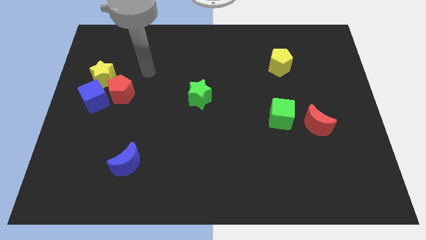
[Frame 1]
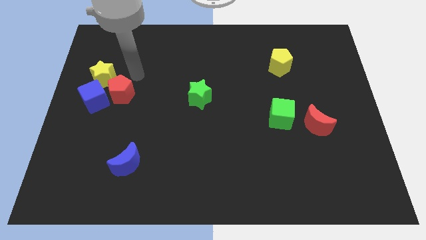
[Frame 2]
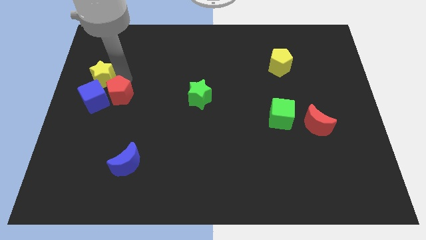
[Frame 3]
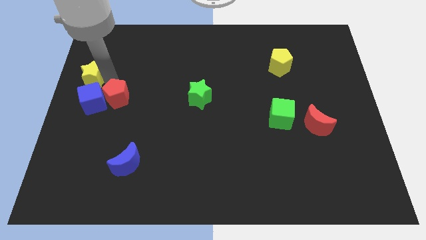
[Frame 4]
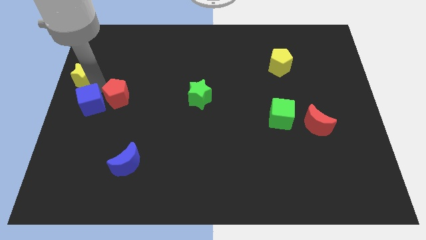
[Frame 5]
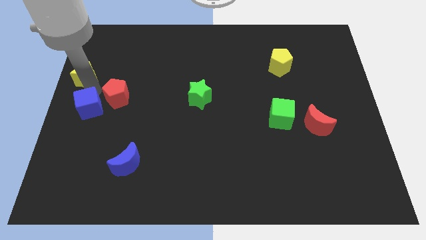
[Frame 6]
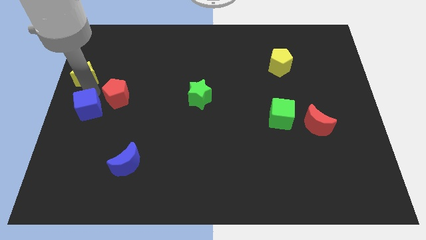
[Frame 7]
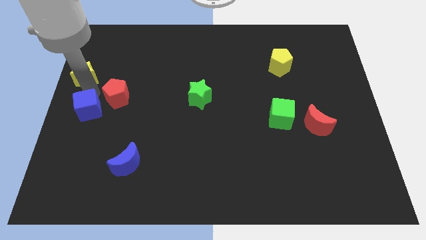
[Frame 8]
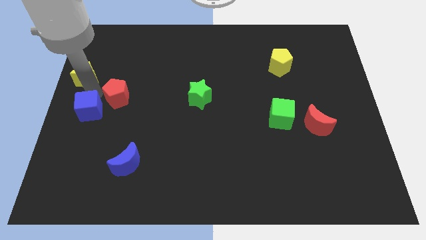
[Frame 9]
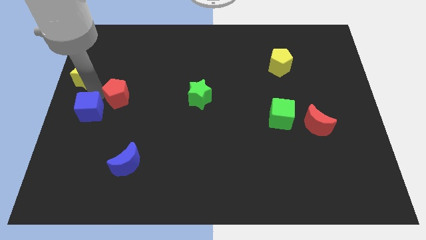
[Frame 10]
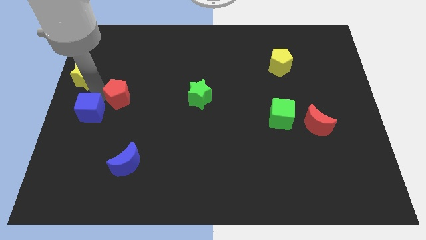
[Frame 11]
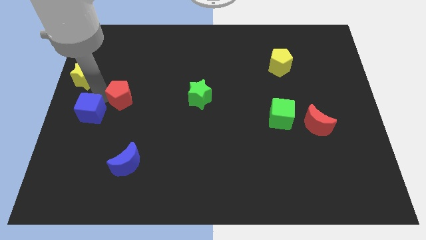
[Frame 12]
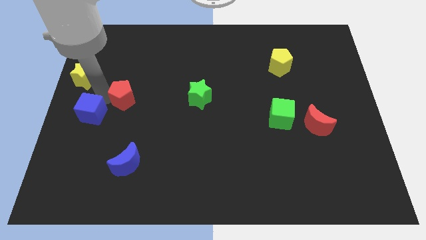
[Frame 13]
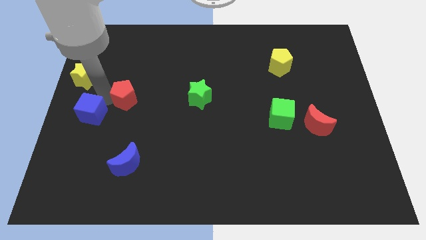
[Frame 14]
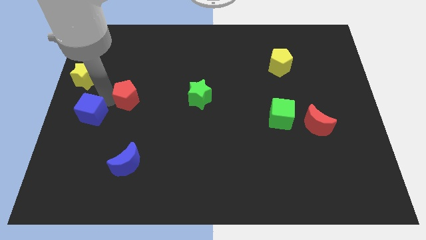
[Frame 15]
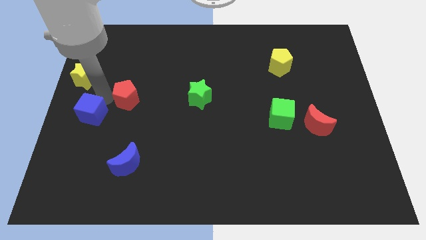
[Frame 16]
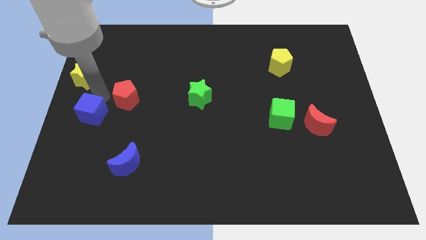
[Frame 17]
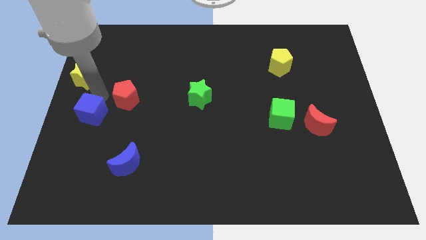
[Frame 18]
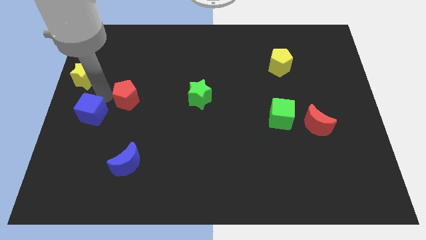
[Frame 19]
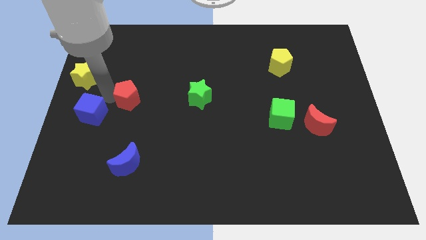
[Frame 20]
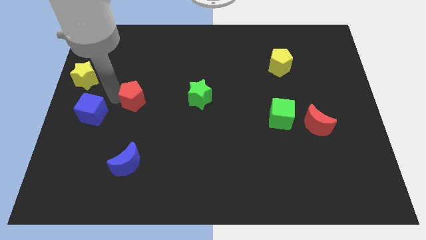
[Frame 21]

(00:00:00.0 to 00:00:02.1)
pull the red pentagon apart from the blue cube and yellow star

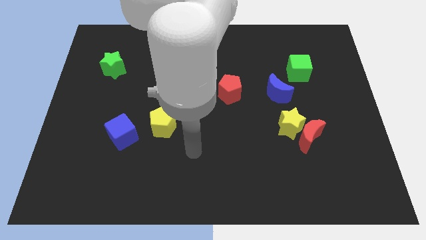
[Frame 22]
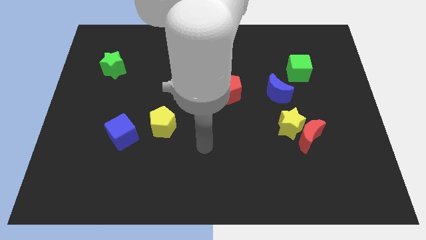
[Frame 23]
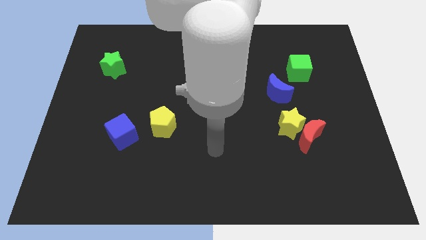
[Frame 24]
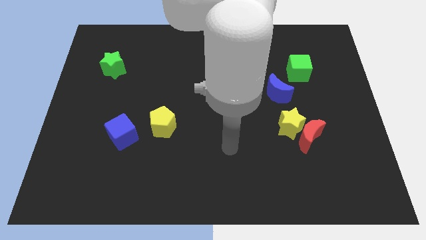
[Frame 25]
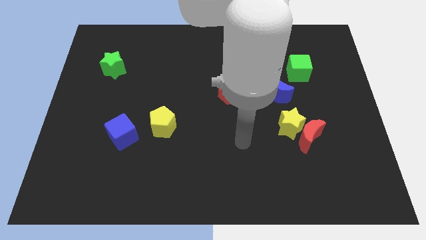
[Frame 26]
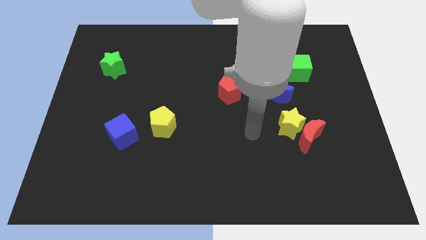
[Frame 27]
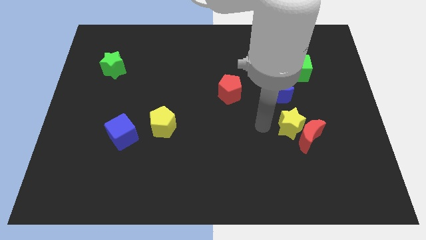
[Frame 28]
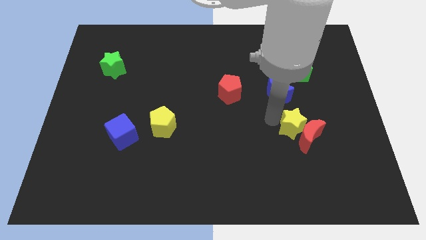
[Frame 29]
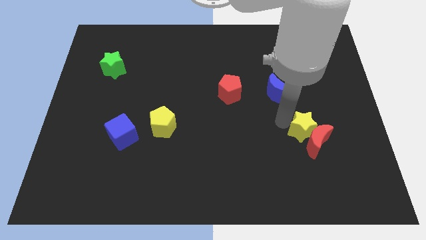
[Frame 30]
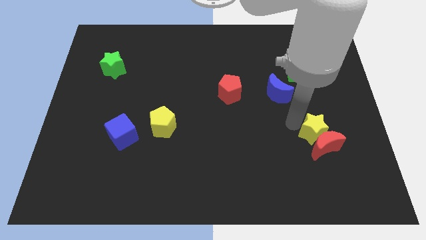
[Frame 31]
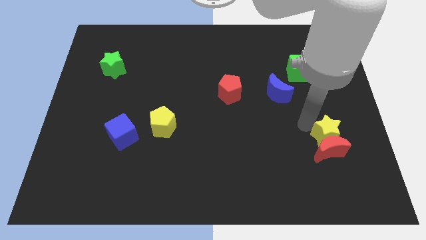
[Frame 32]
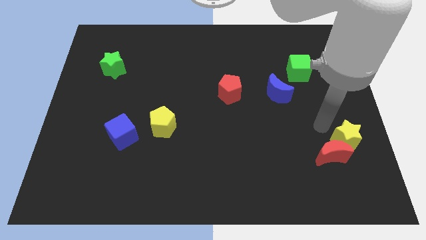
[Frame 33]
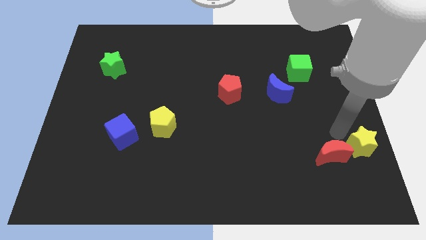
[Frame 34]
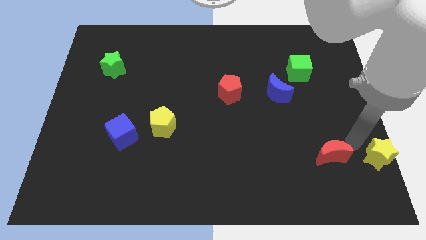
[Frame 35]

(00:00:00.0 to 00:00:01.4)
move the red moon away from the yellow star

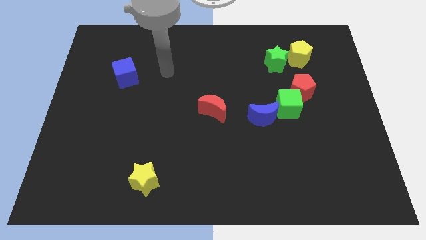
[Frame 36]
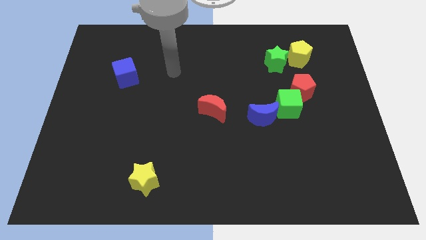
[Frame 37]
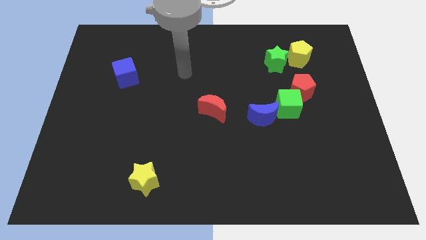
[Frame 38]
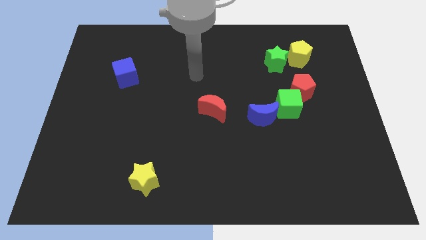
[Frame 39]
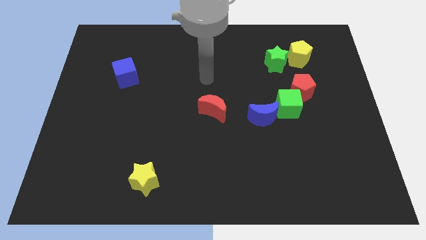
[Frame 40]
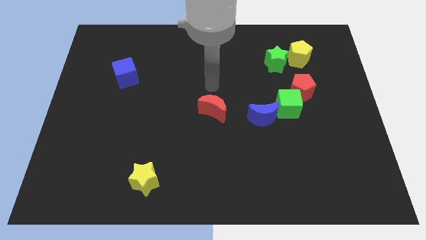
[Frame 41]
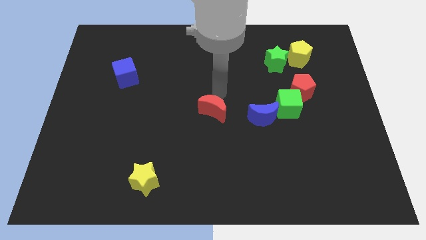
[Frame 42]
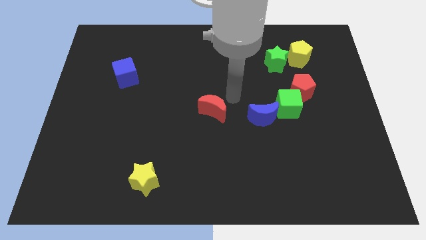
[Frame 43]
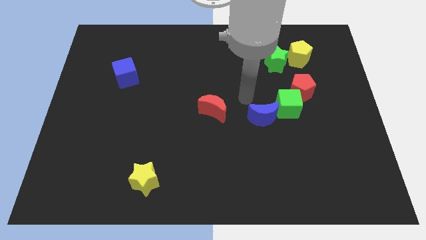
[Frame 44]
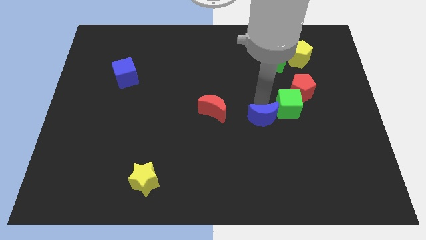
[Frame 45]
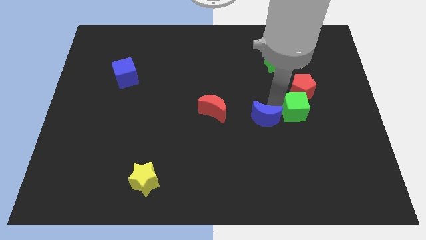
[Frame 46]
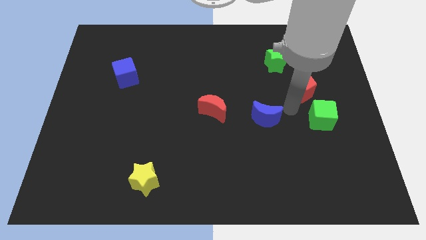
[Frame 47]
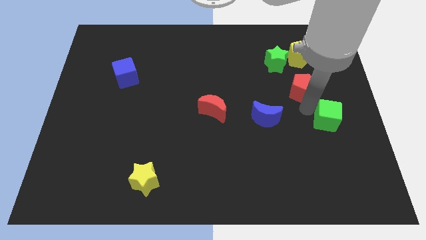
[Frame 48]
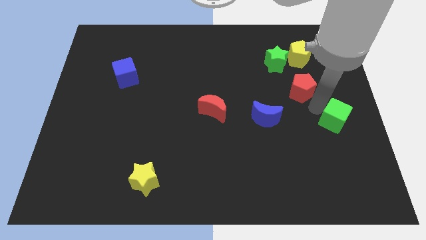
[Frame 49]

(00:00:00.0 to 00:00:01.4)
separate the red pentagon from the green cube

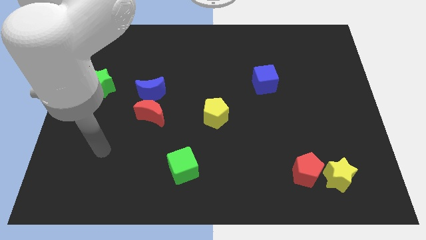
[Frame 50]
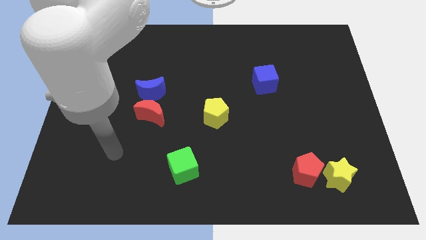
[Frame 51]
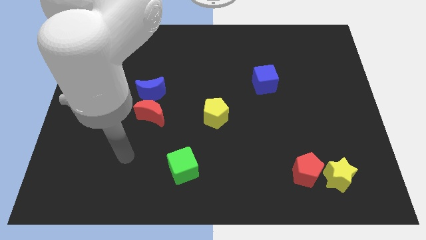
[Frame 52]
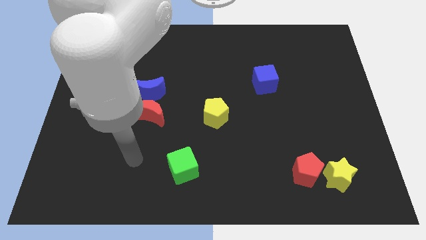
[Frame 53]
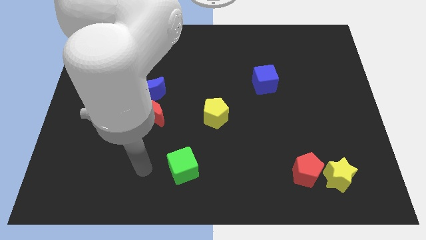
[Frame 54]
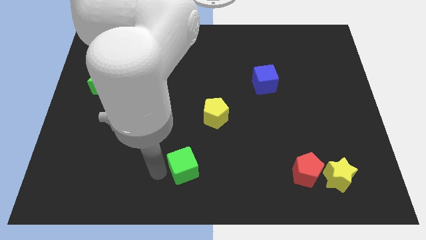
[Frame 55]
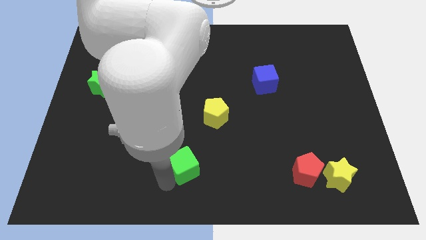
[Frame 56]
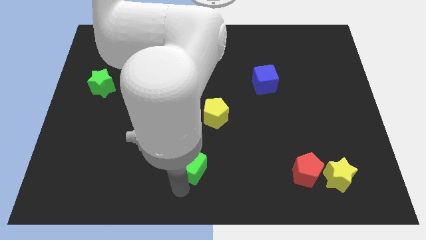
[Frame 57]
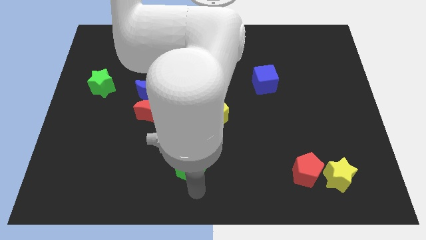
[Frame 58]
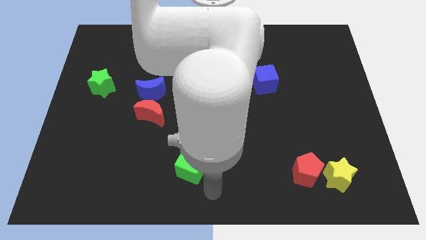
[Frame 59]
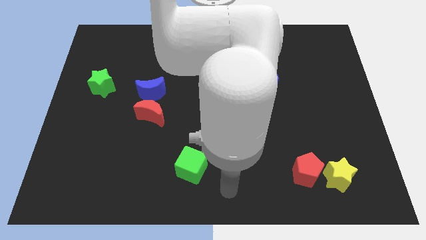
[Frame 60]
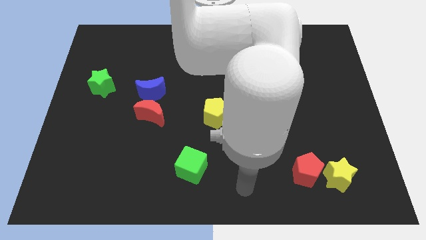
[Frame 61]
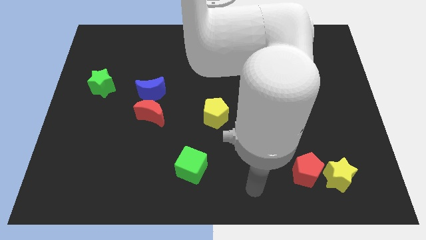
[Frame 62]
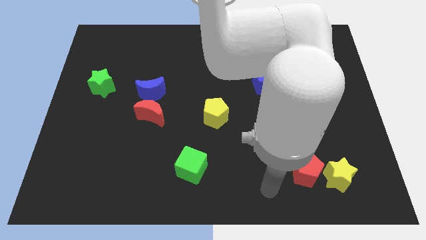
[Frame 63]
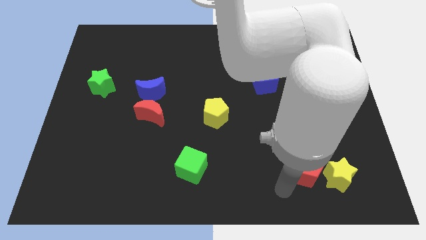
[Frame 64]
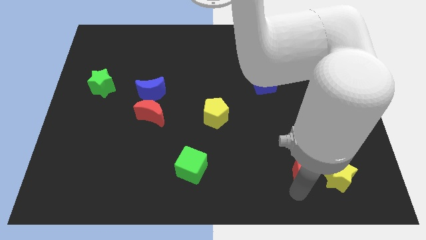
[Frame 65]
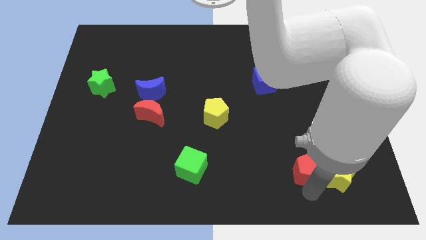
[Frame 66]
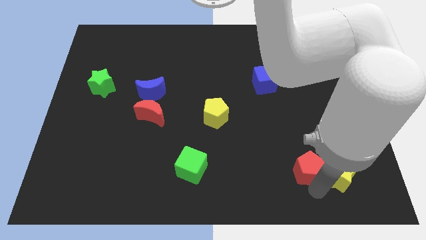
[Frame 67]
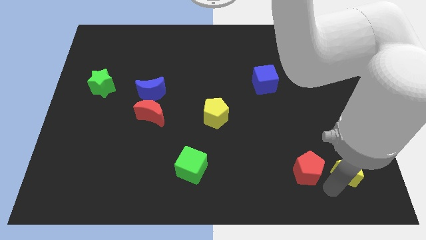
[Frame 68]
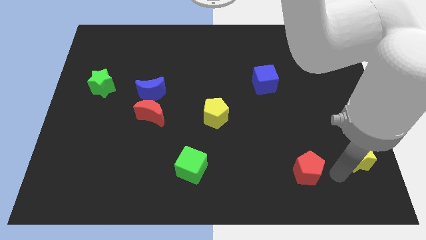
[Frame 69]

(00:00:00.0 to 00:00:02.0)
separate the red pentagon from the yellow star

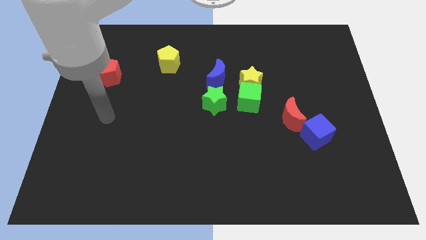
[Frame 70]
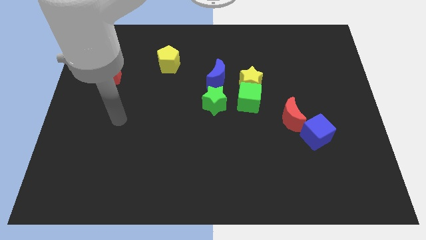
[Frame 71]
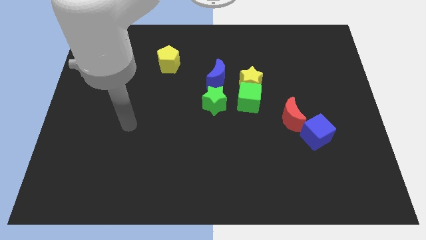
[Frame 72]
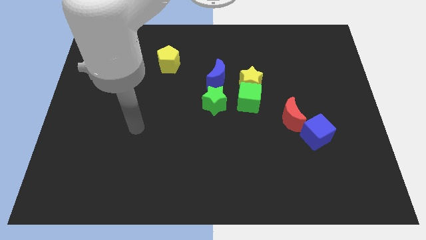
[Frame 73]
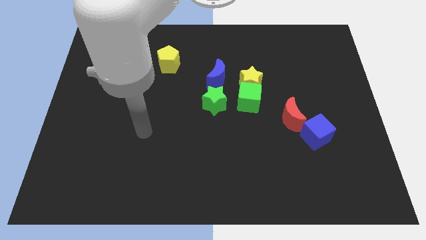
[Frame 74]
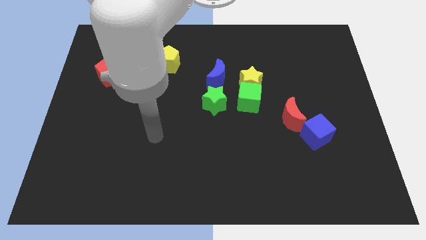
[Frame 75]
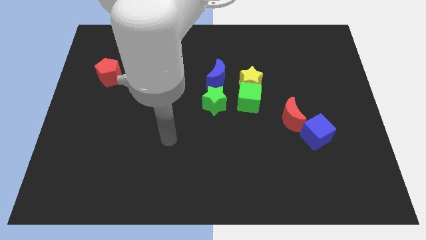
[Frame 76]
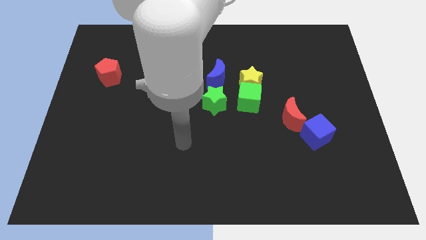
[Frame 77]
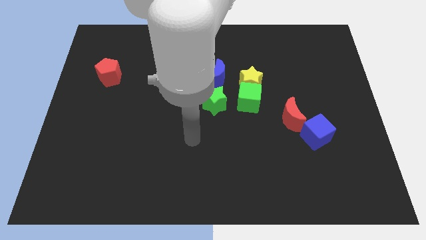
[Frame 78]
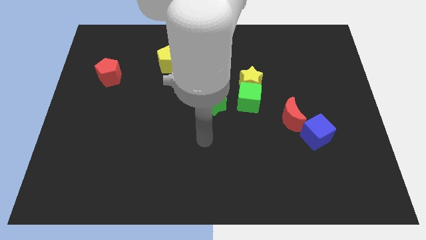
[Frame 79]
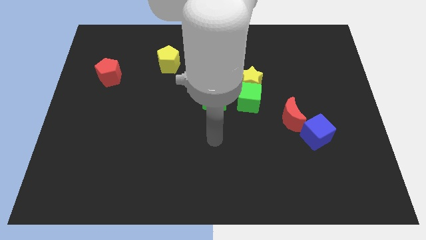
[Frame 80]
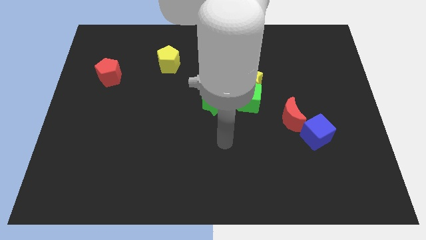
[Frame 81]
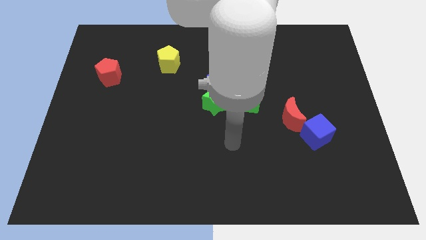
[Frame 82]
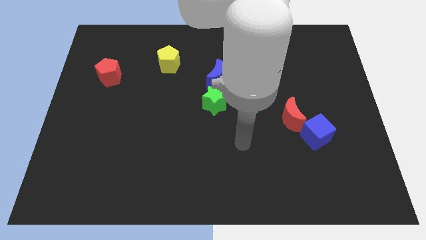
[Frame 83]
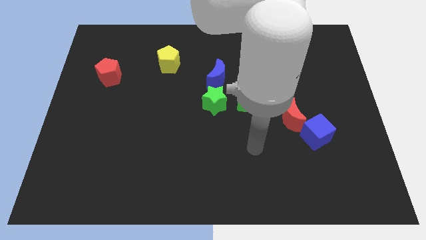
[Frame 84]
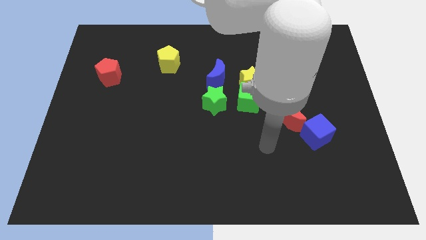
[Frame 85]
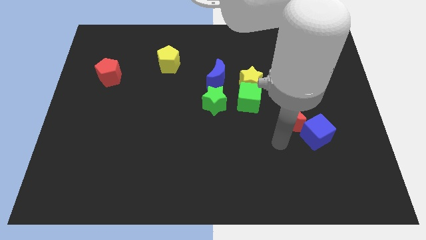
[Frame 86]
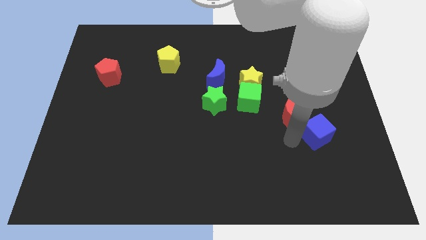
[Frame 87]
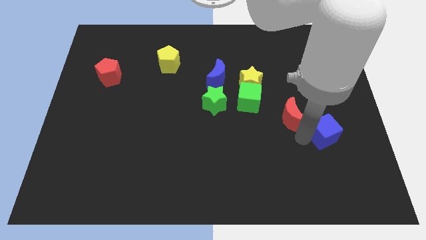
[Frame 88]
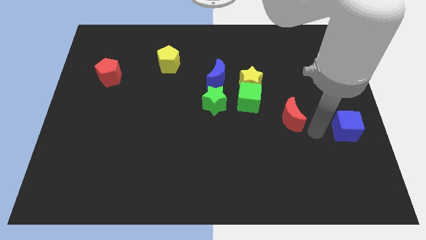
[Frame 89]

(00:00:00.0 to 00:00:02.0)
separate the red moon from the blue cube

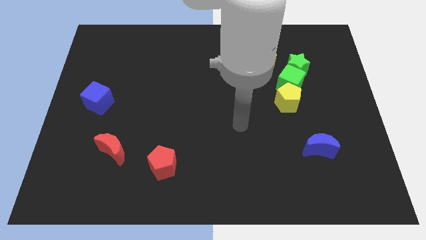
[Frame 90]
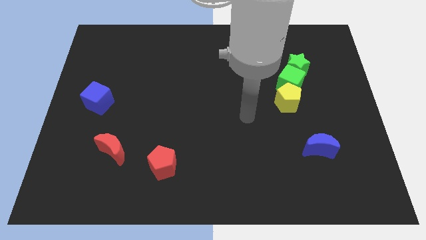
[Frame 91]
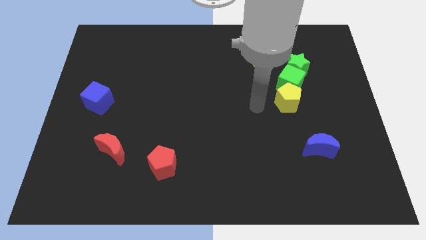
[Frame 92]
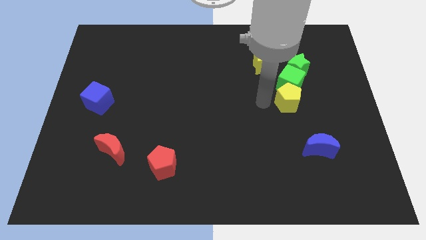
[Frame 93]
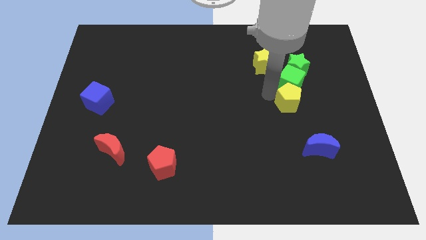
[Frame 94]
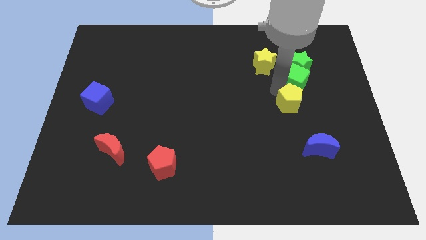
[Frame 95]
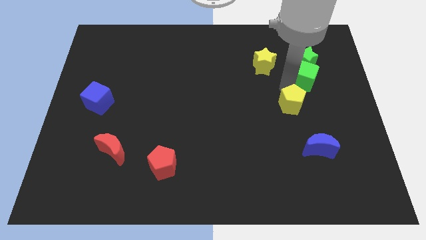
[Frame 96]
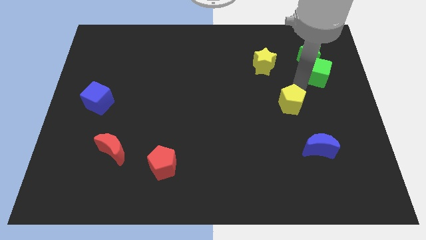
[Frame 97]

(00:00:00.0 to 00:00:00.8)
separate the yellow pentagon from the green cube
